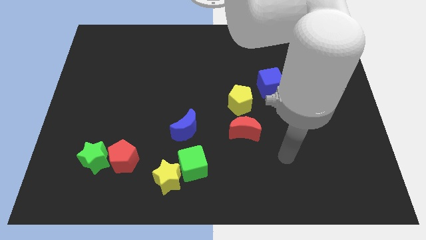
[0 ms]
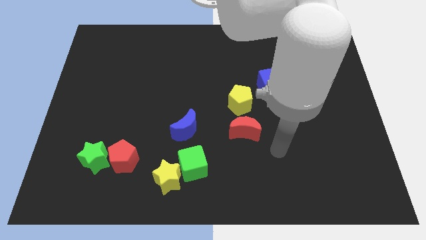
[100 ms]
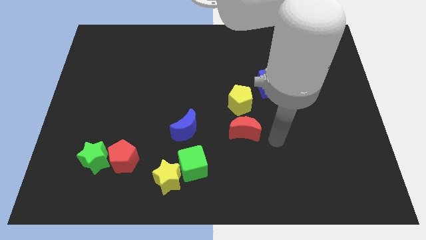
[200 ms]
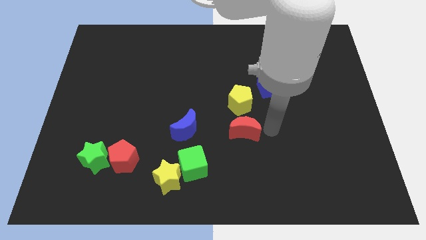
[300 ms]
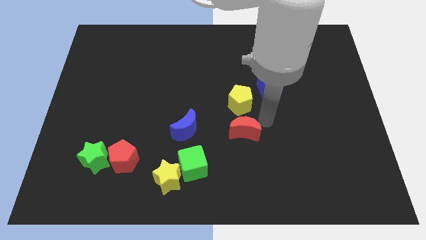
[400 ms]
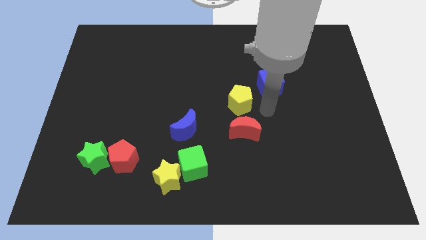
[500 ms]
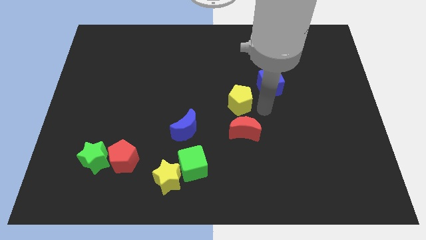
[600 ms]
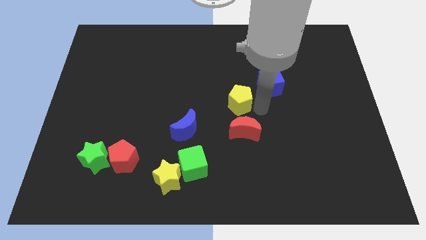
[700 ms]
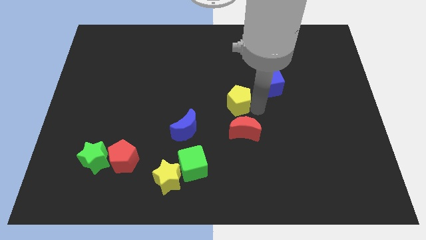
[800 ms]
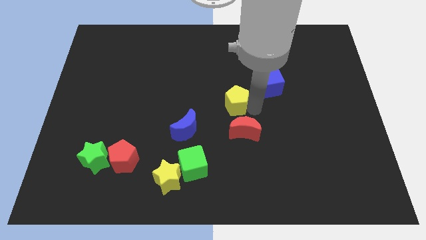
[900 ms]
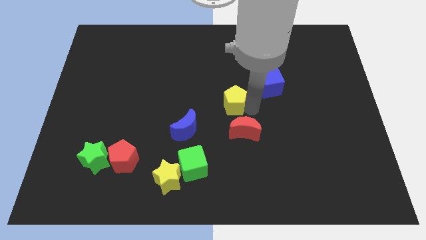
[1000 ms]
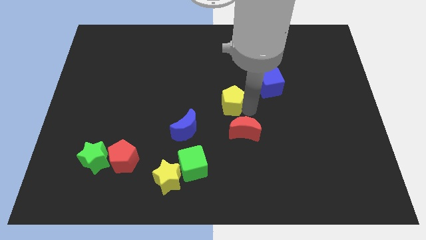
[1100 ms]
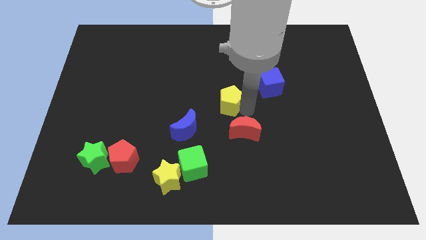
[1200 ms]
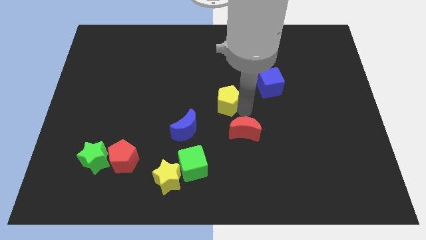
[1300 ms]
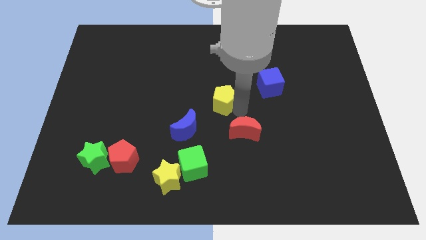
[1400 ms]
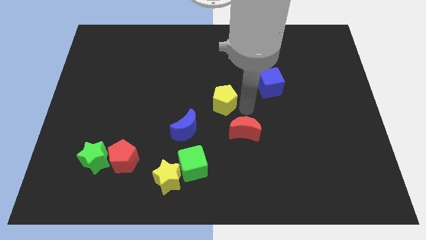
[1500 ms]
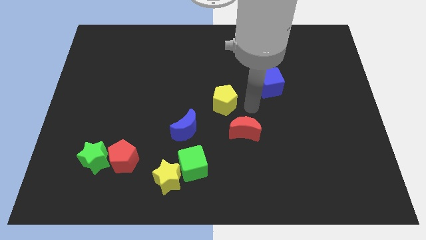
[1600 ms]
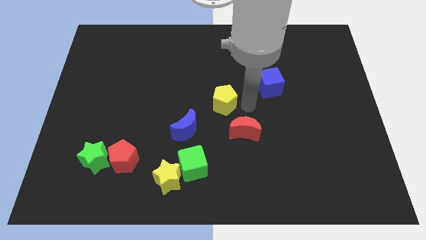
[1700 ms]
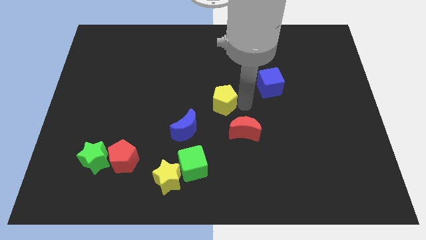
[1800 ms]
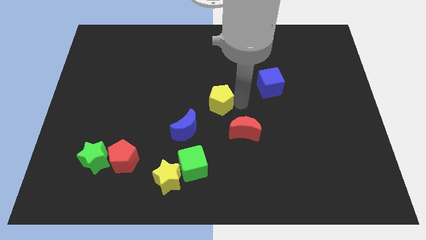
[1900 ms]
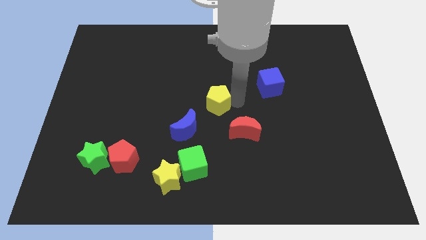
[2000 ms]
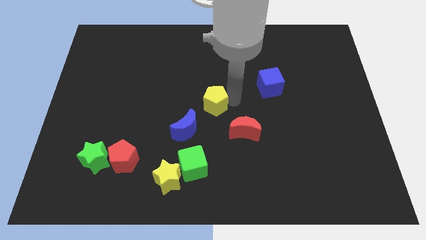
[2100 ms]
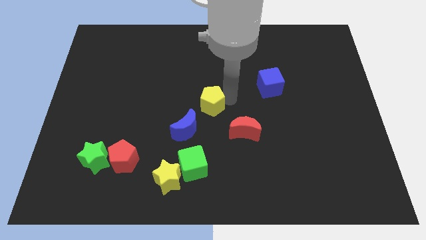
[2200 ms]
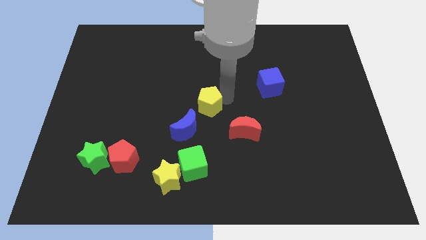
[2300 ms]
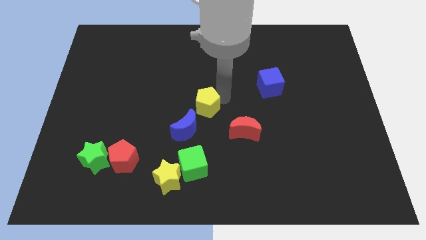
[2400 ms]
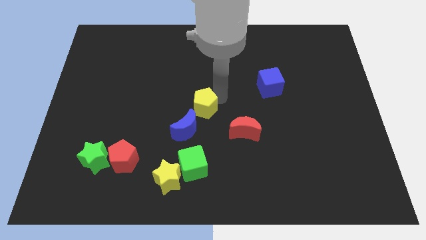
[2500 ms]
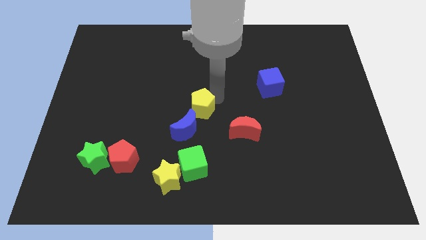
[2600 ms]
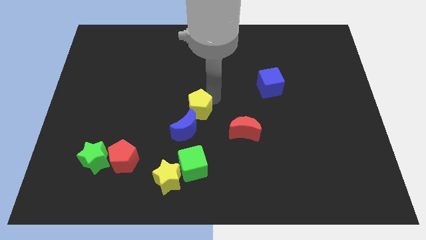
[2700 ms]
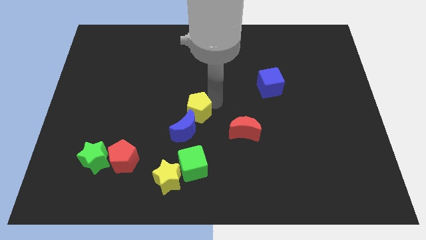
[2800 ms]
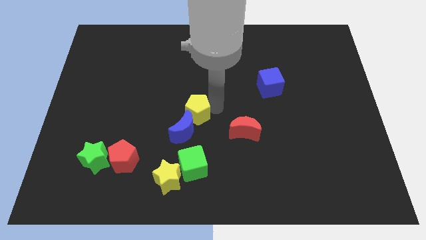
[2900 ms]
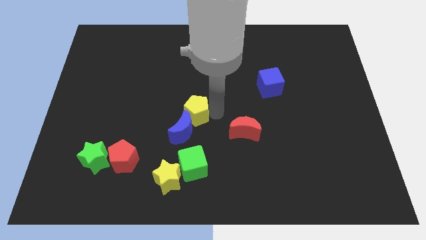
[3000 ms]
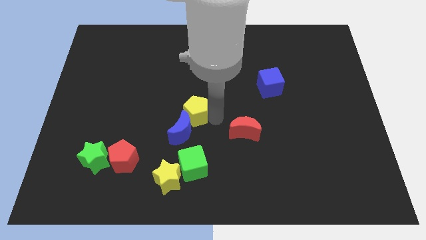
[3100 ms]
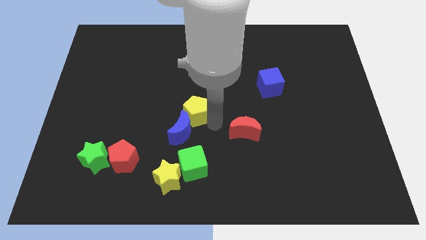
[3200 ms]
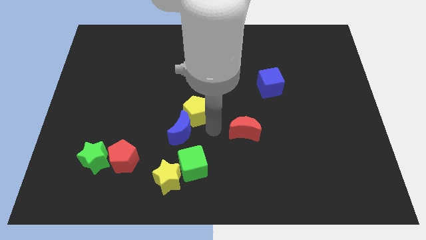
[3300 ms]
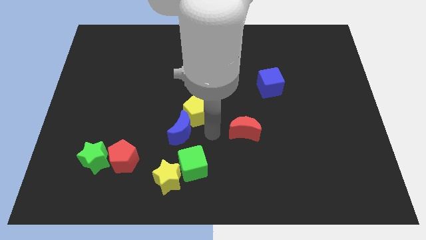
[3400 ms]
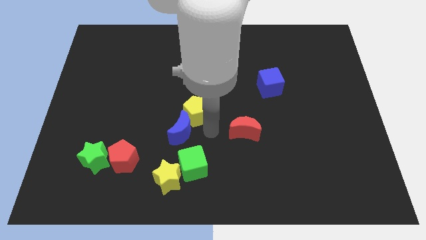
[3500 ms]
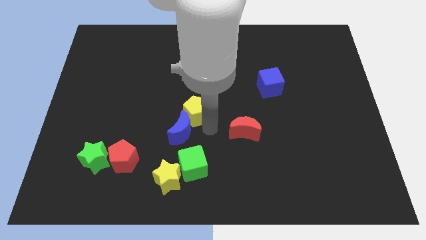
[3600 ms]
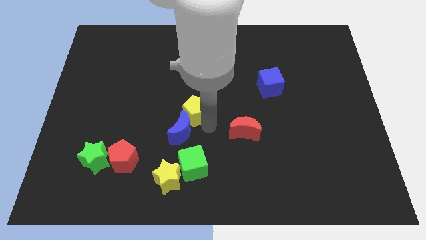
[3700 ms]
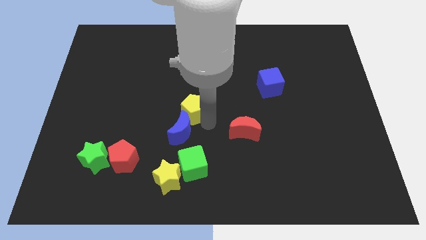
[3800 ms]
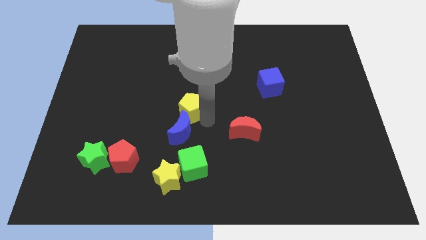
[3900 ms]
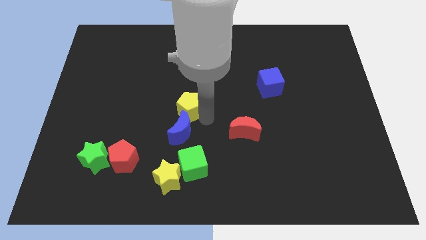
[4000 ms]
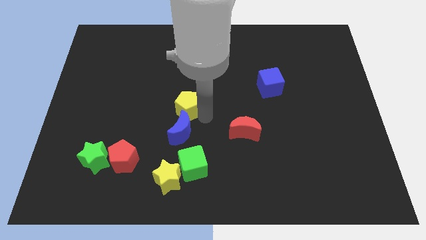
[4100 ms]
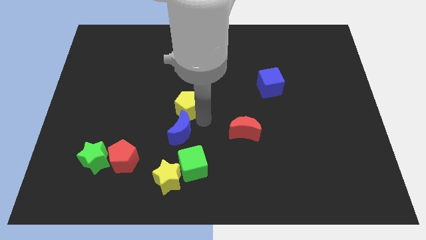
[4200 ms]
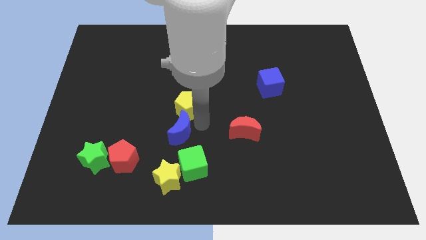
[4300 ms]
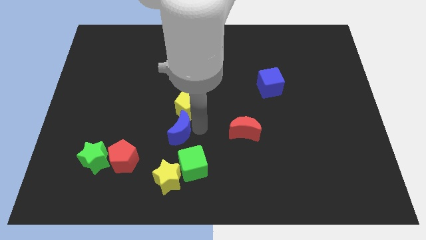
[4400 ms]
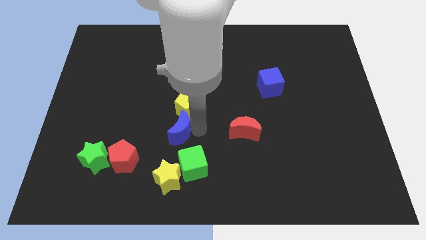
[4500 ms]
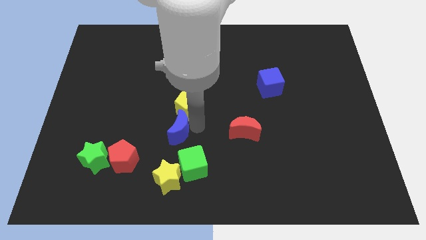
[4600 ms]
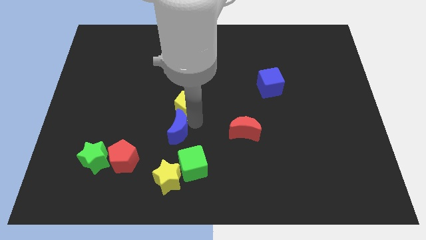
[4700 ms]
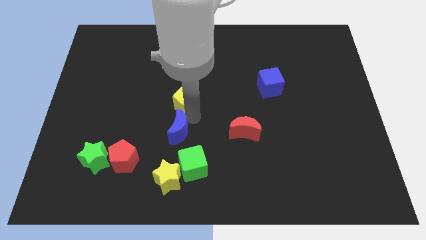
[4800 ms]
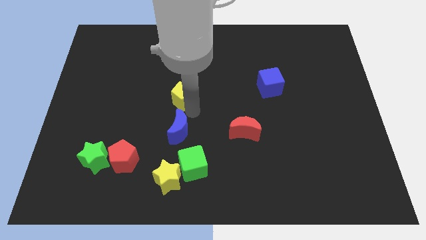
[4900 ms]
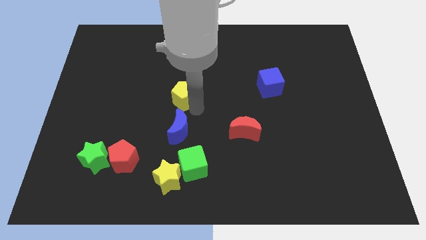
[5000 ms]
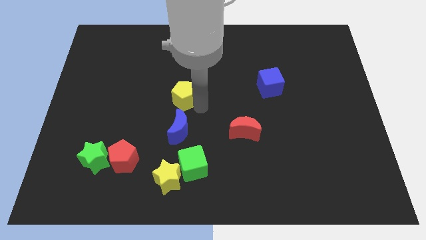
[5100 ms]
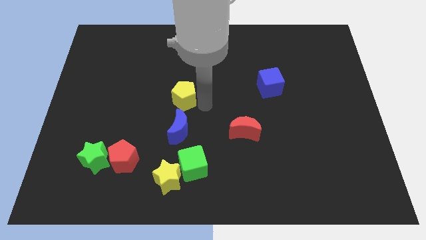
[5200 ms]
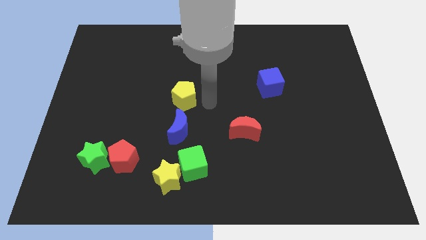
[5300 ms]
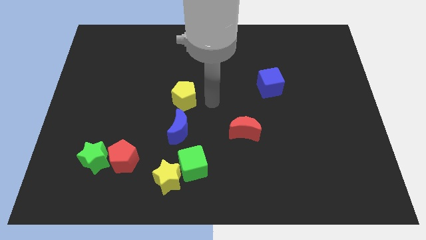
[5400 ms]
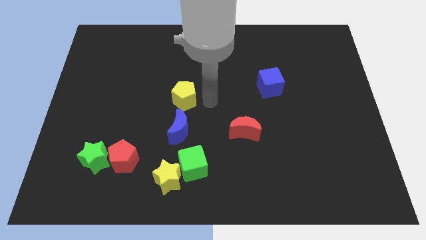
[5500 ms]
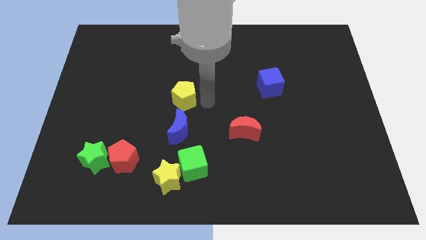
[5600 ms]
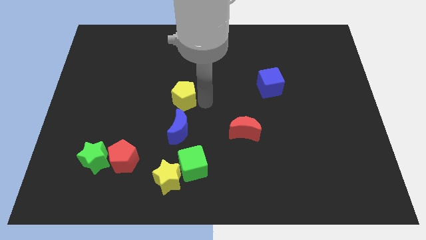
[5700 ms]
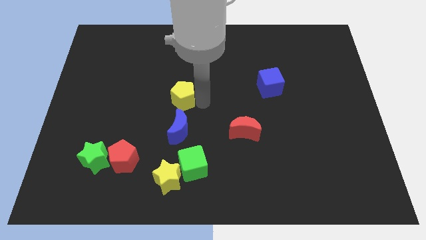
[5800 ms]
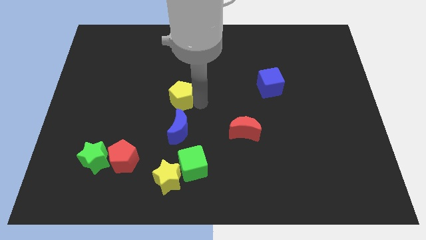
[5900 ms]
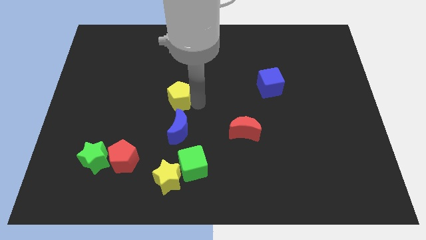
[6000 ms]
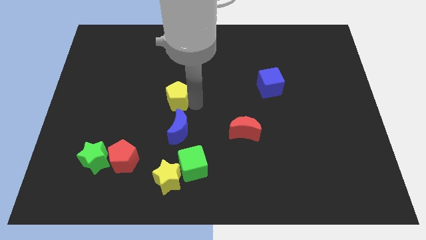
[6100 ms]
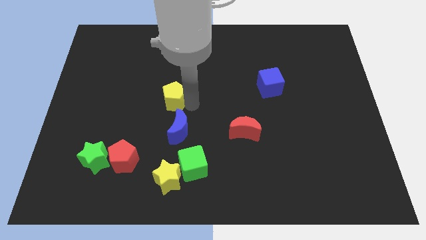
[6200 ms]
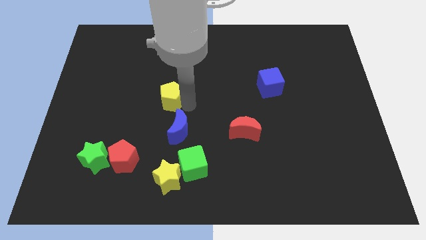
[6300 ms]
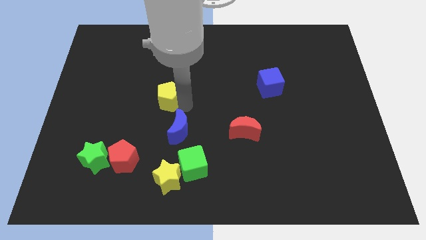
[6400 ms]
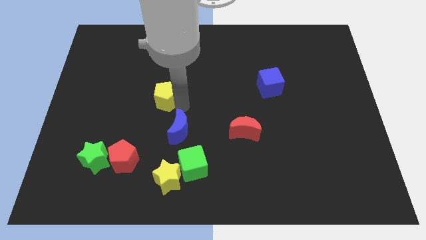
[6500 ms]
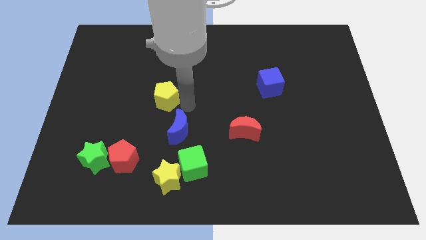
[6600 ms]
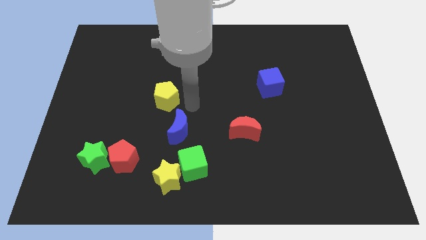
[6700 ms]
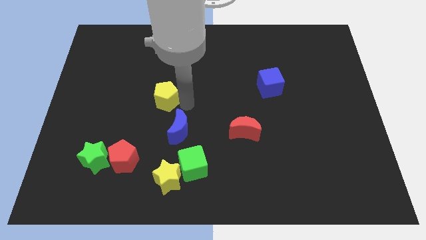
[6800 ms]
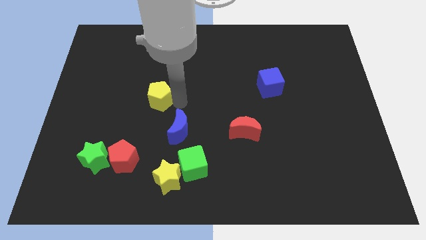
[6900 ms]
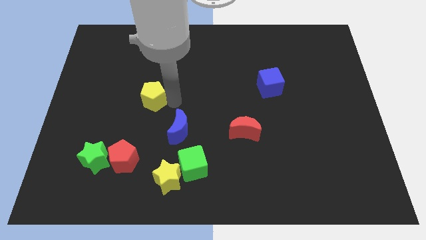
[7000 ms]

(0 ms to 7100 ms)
move the yellow pentagon to the left

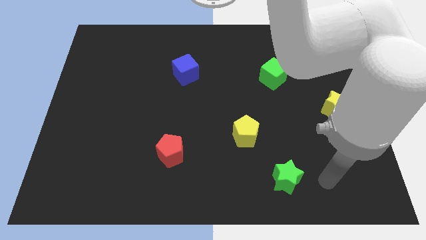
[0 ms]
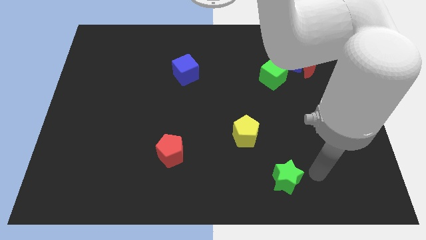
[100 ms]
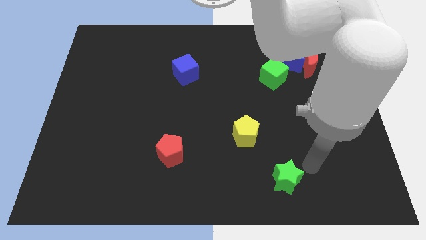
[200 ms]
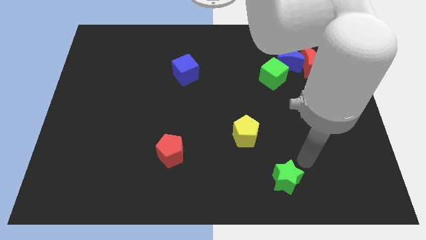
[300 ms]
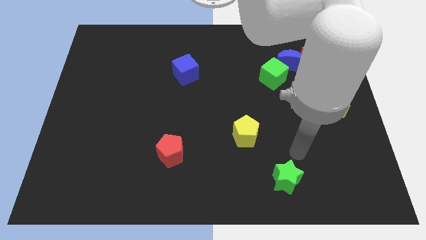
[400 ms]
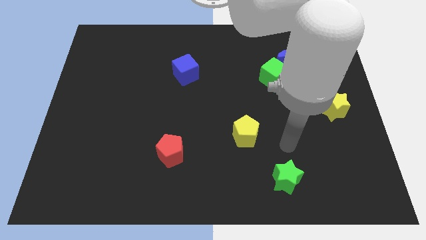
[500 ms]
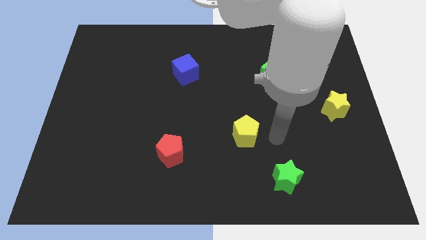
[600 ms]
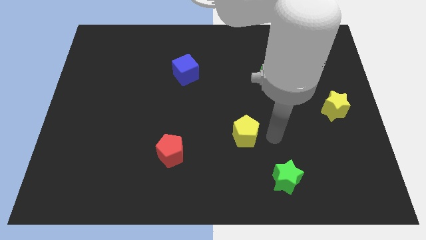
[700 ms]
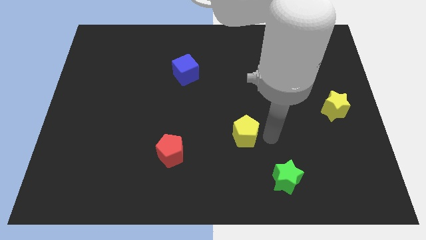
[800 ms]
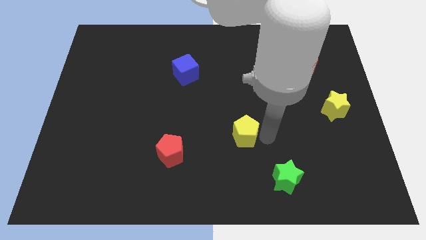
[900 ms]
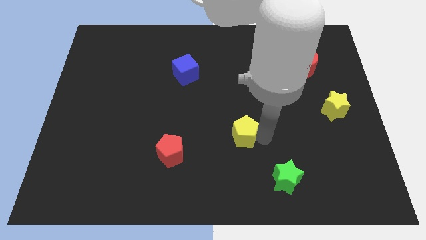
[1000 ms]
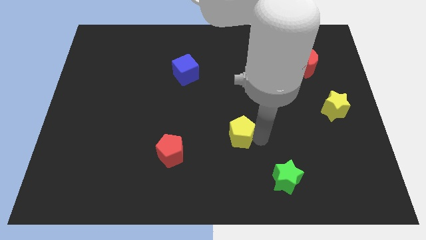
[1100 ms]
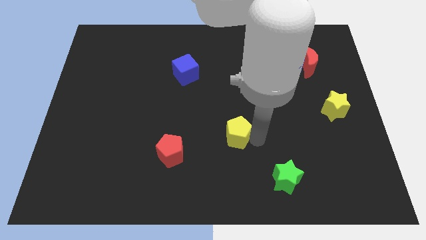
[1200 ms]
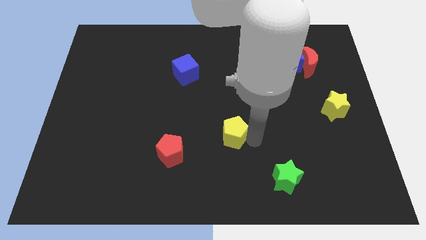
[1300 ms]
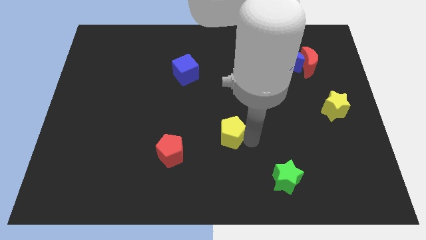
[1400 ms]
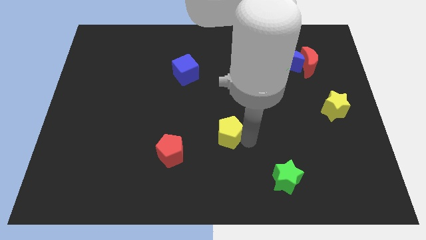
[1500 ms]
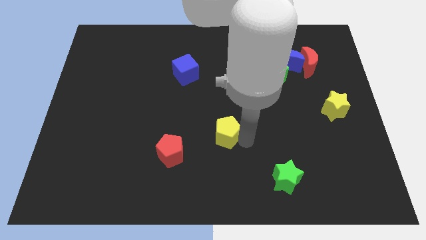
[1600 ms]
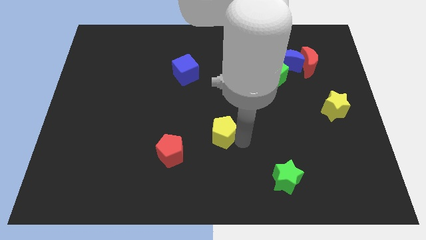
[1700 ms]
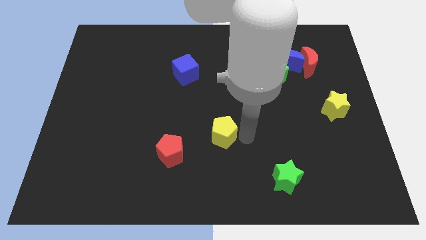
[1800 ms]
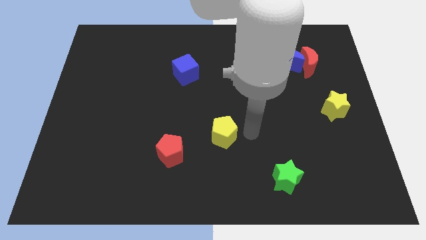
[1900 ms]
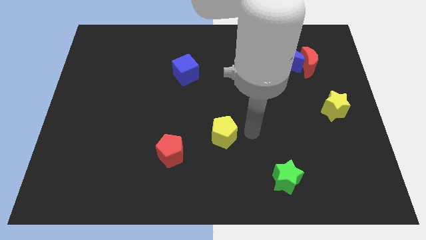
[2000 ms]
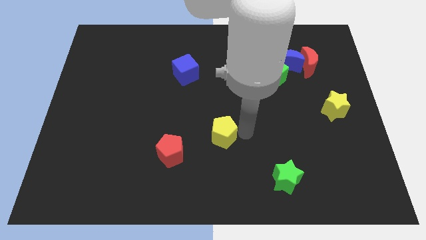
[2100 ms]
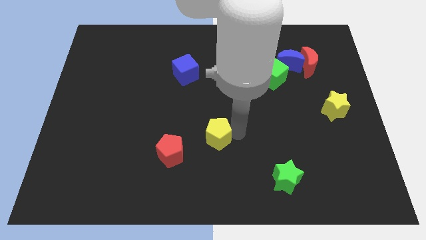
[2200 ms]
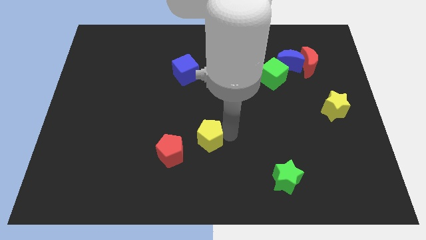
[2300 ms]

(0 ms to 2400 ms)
move the yellow pentagon slightly left
